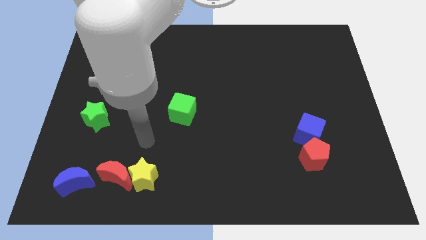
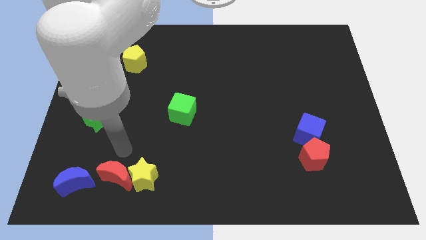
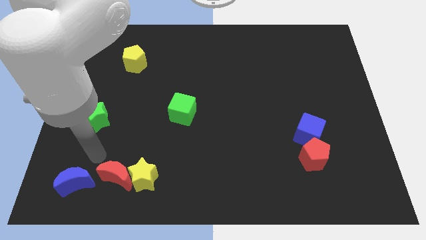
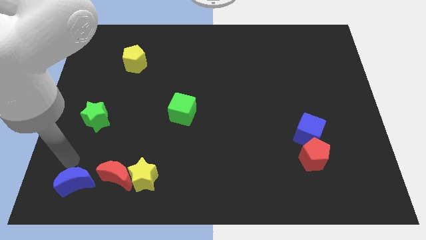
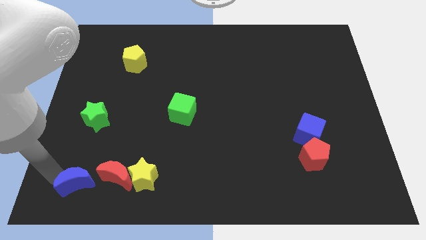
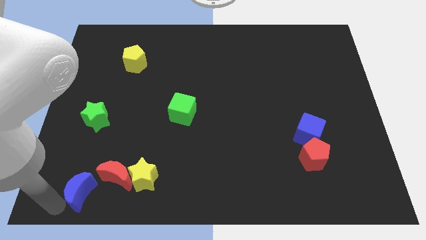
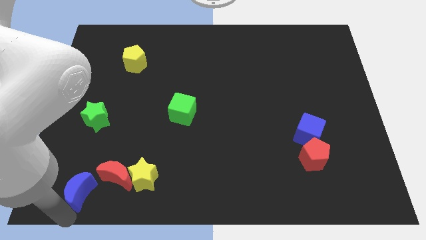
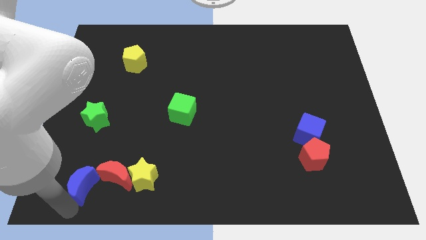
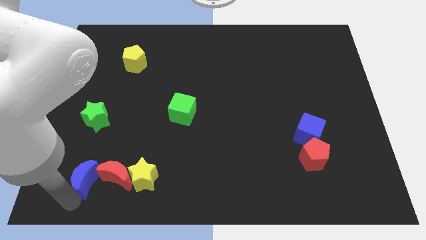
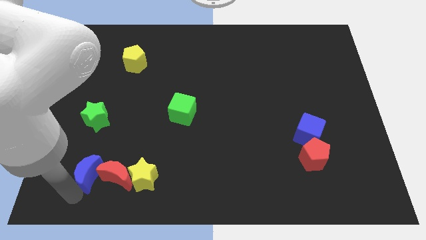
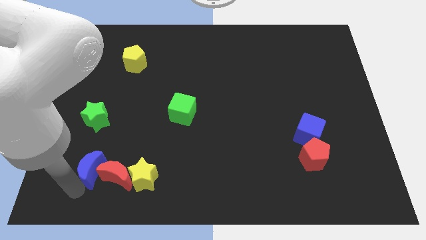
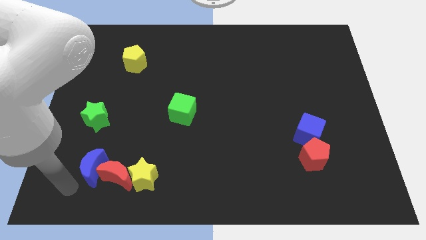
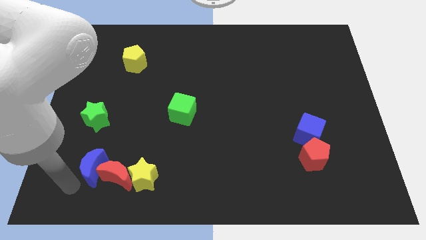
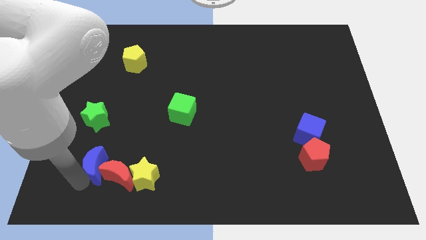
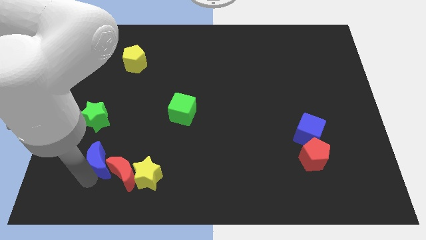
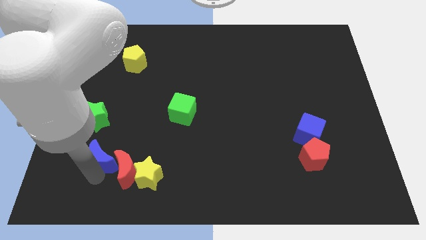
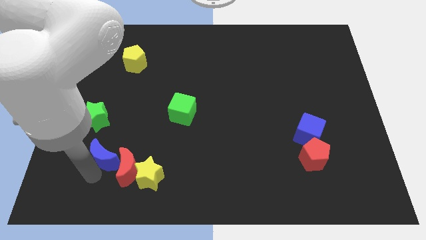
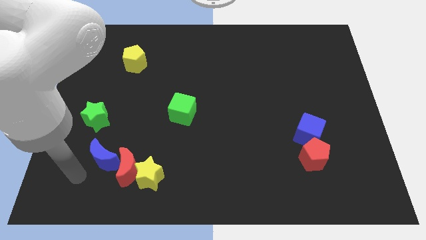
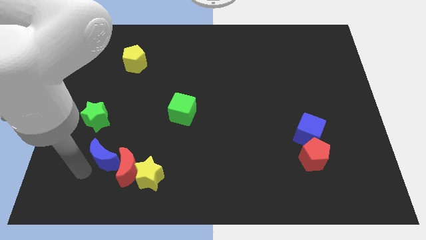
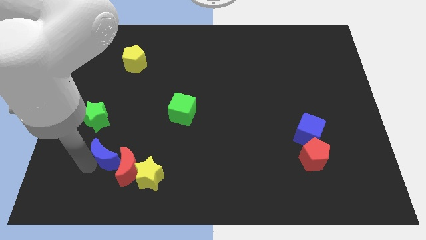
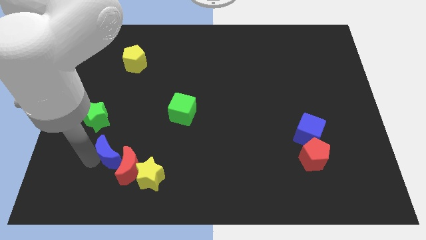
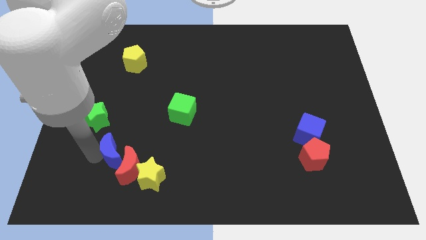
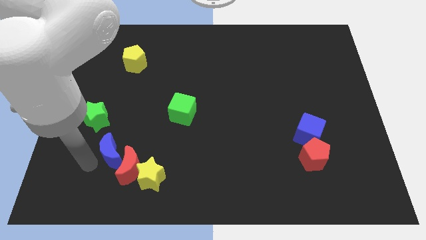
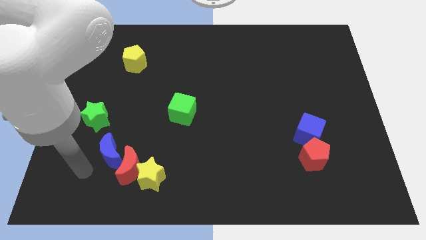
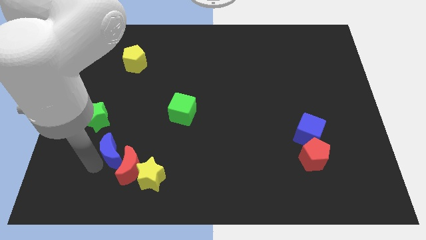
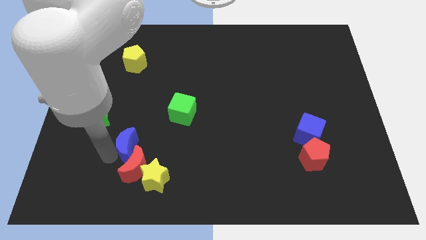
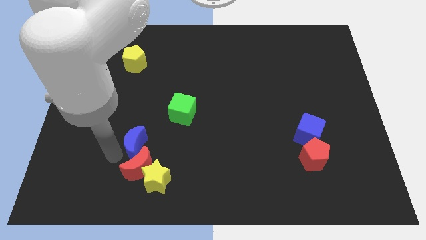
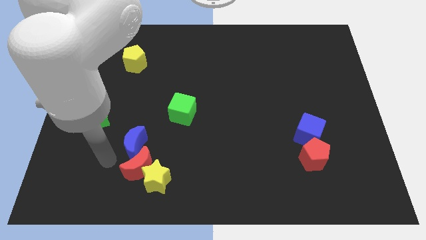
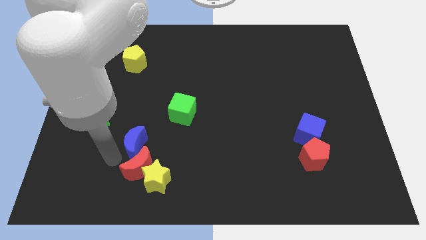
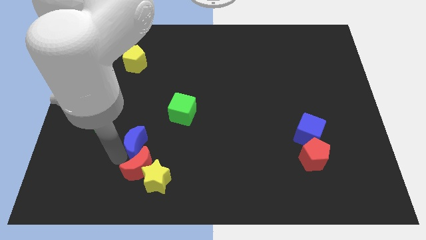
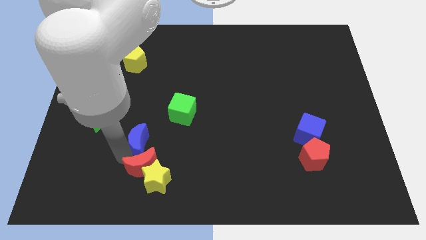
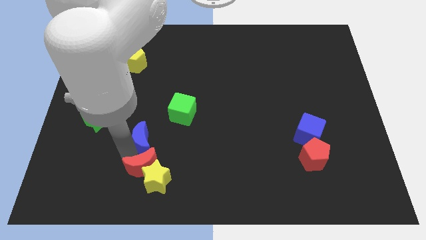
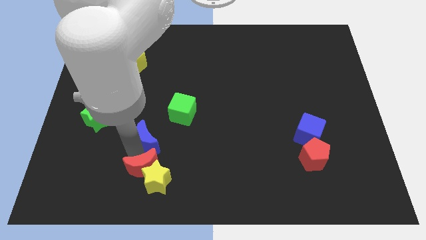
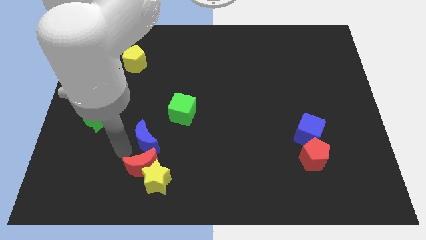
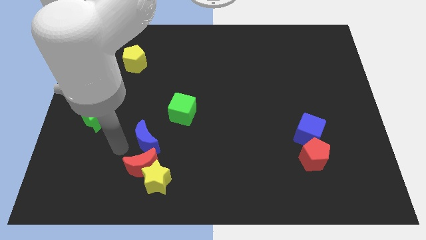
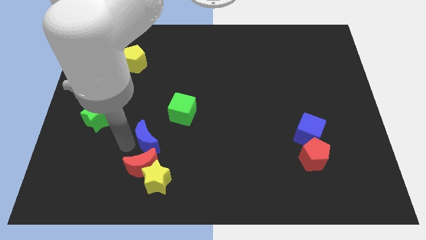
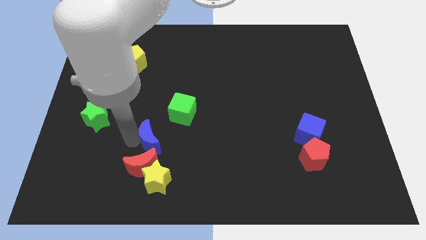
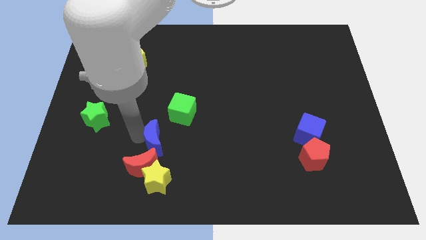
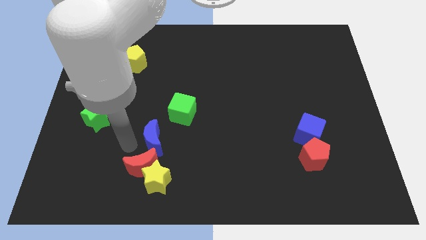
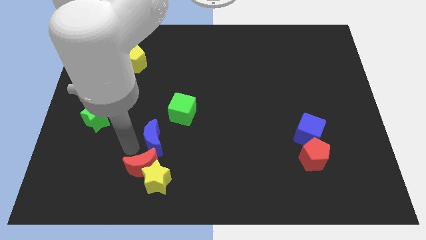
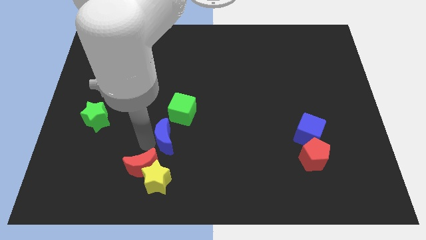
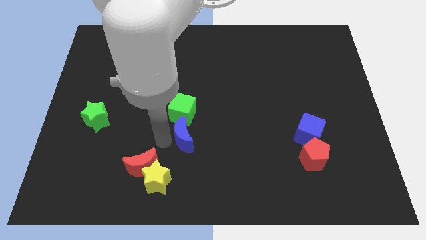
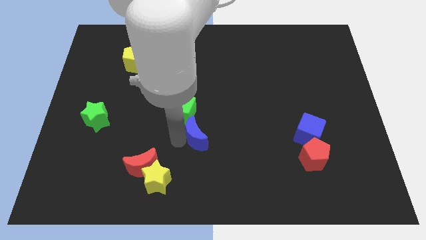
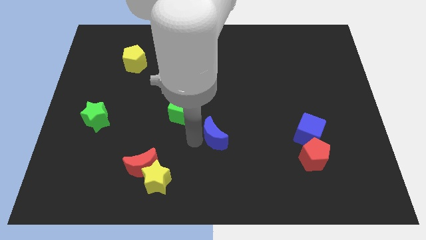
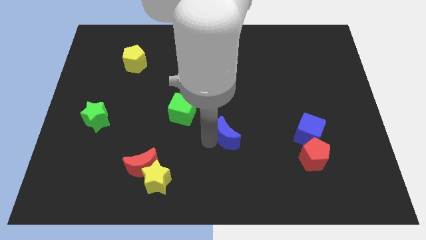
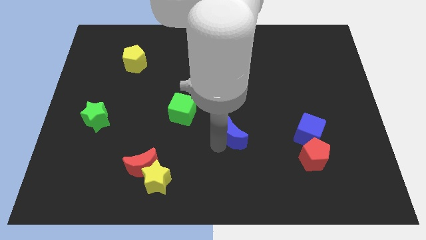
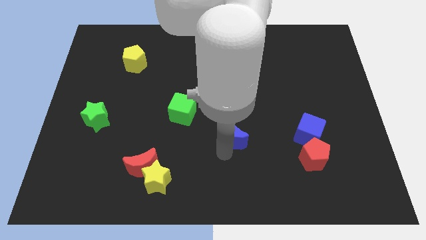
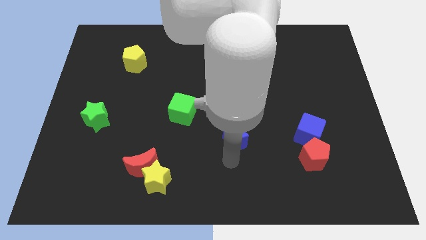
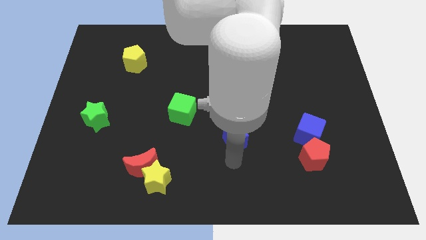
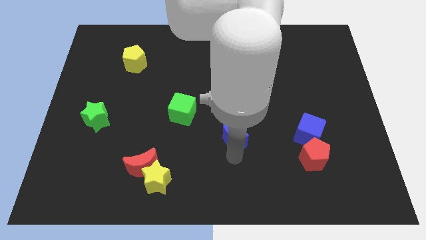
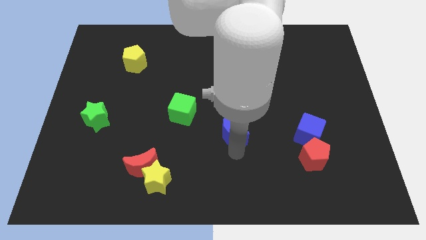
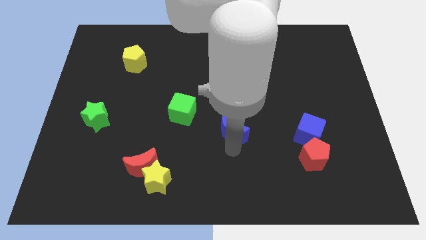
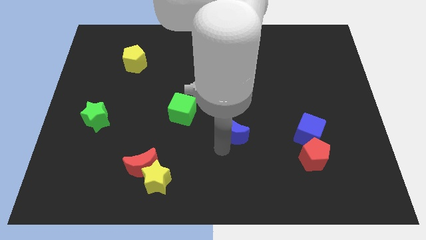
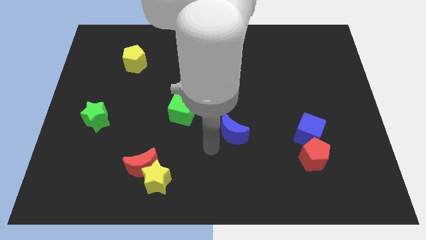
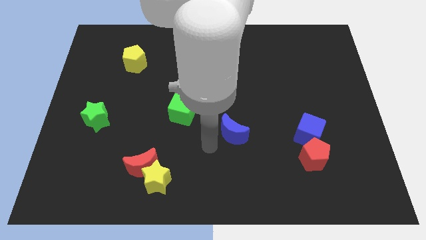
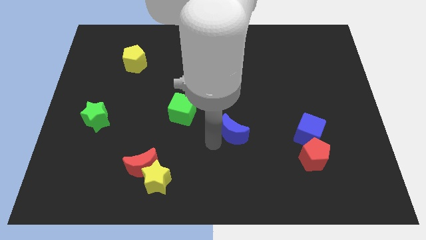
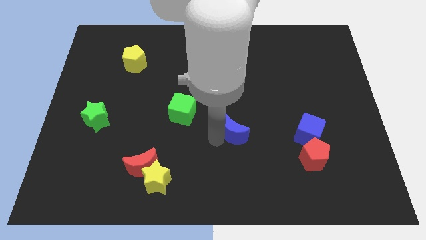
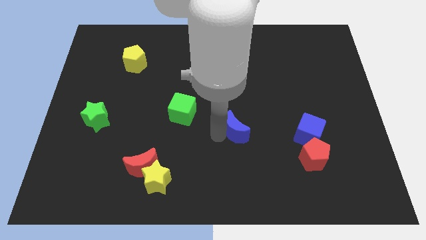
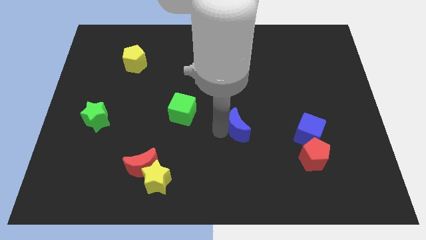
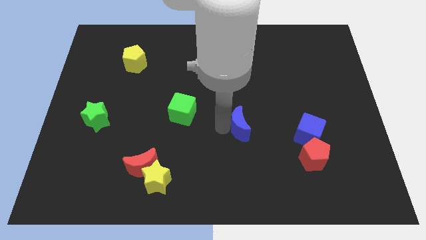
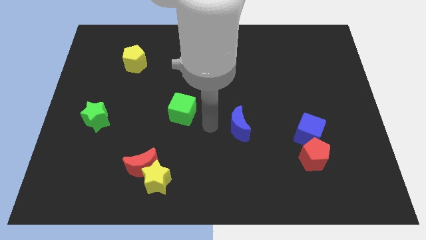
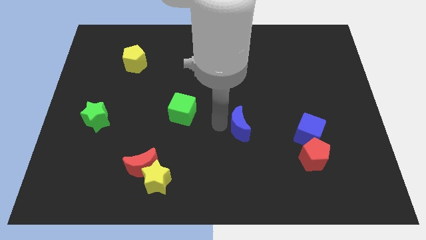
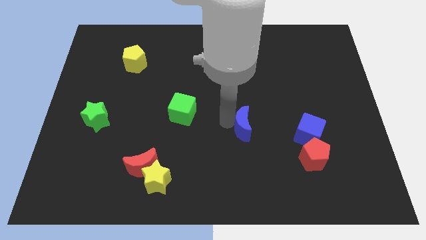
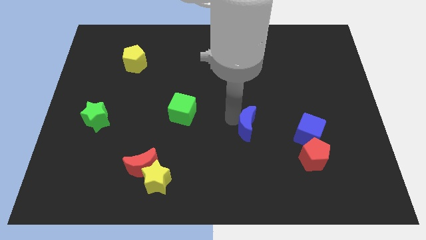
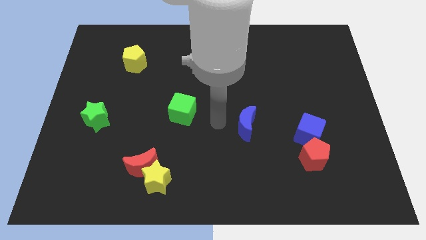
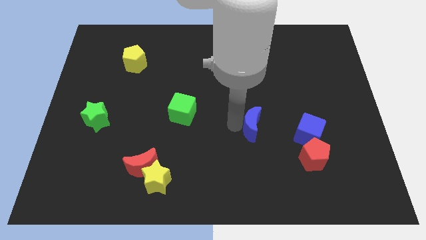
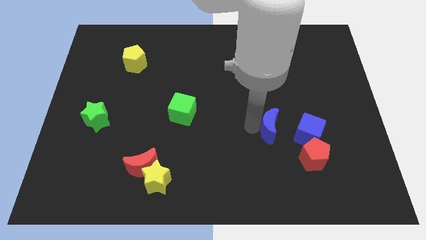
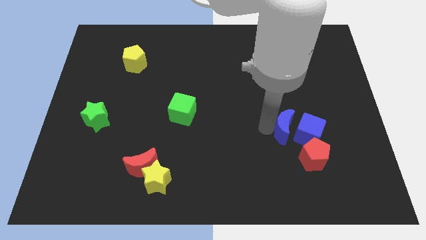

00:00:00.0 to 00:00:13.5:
slide the blue moon next to the blue cube

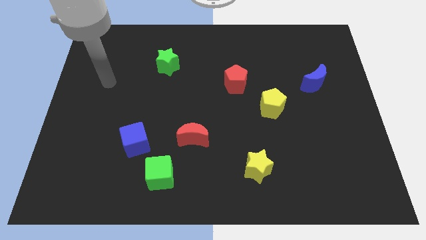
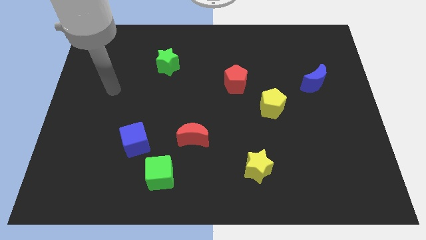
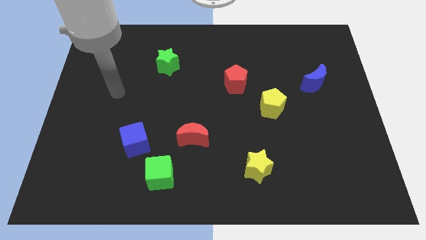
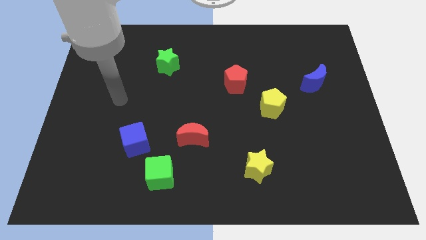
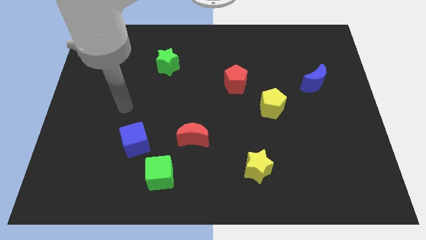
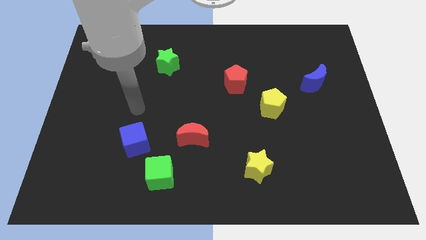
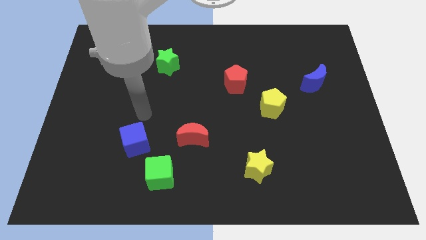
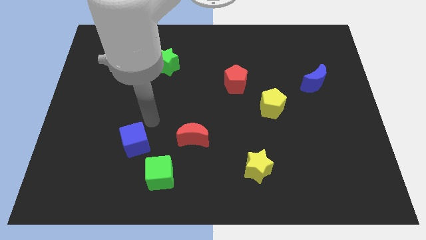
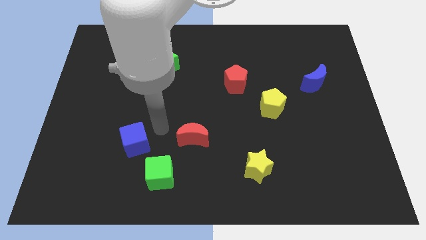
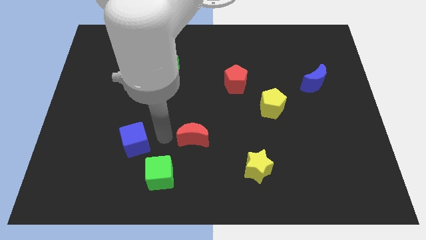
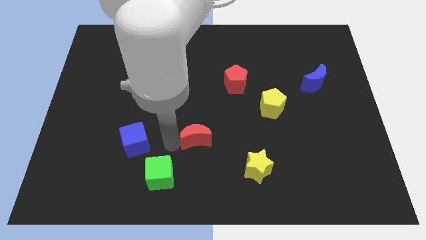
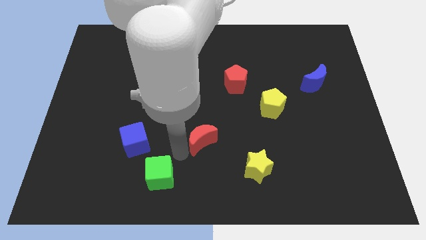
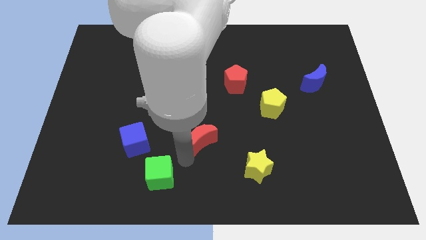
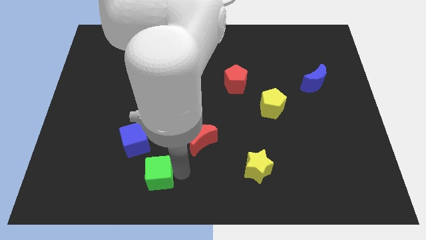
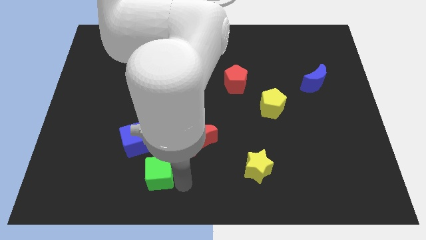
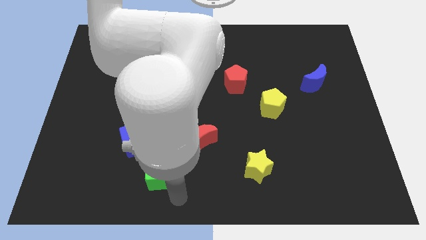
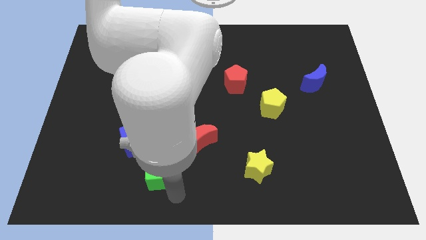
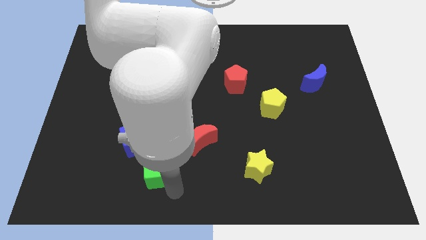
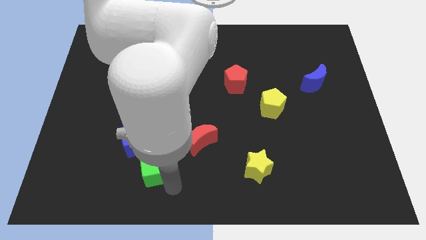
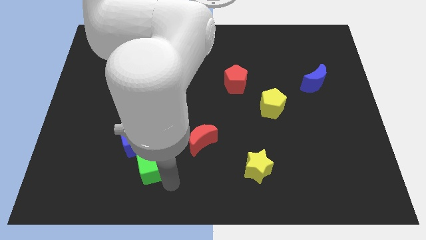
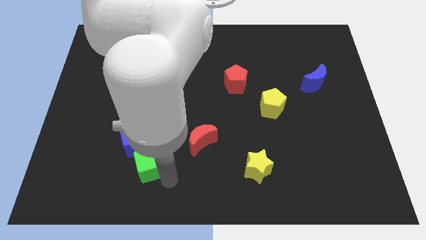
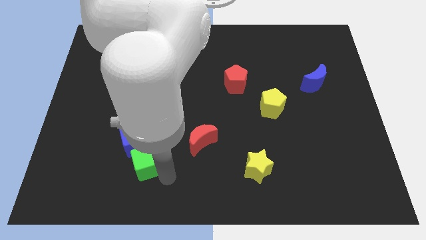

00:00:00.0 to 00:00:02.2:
slide the green cube to the blue cube
